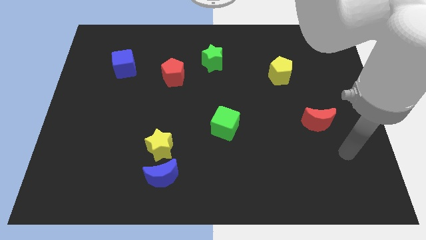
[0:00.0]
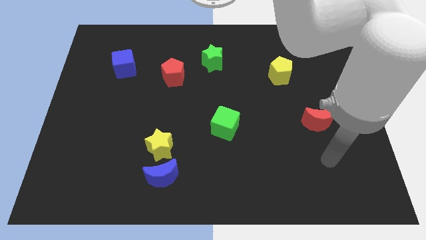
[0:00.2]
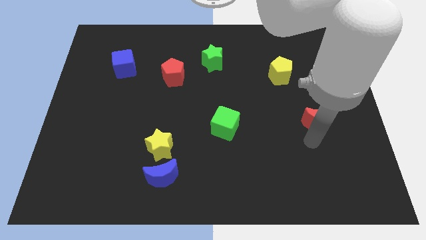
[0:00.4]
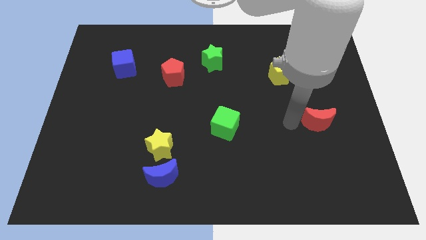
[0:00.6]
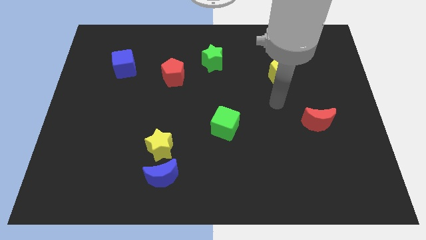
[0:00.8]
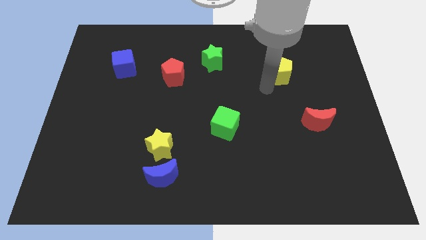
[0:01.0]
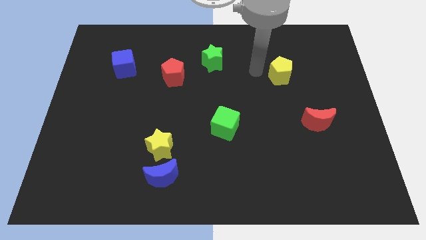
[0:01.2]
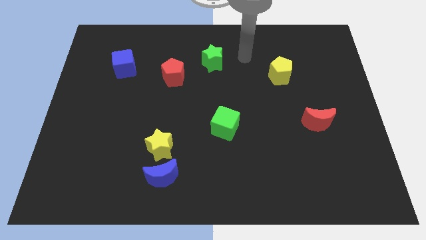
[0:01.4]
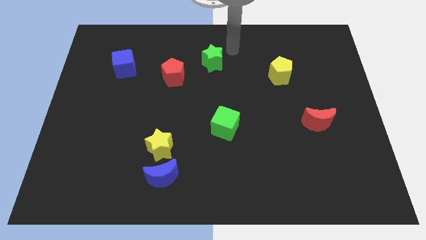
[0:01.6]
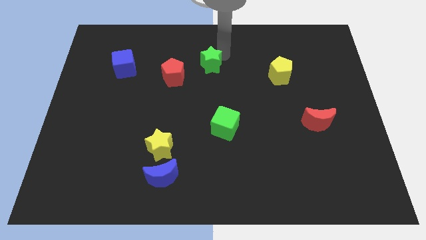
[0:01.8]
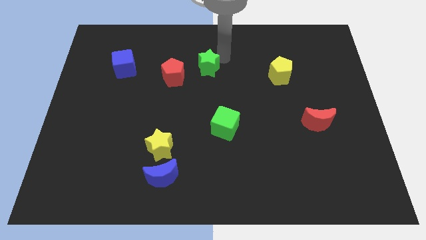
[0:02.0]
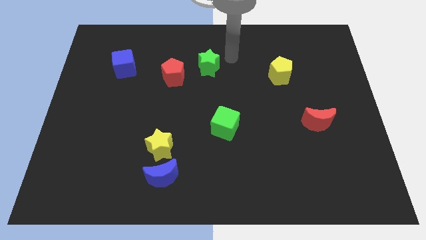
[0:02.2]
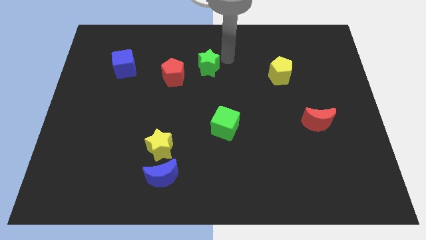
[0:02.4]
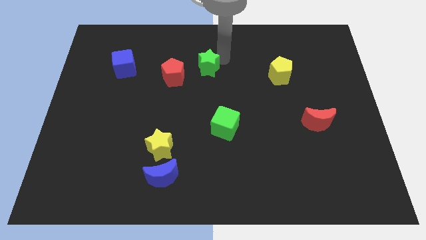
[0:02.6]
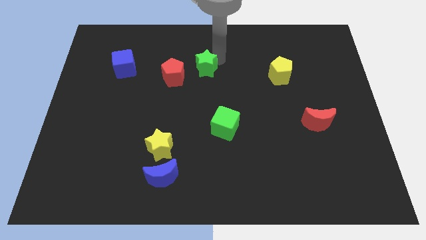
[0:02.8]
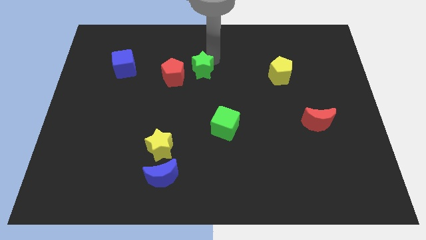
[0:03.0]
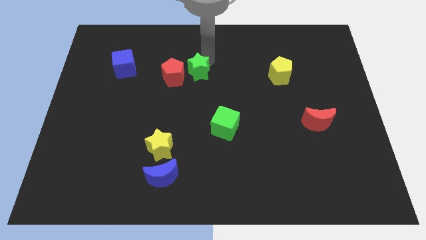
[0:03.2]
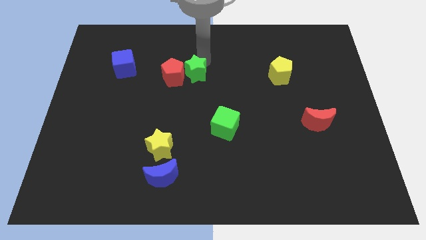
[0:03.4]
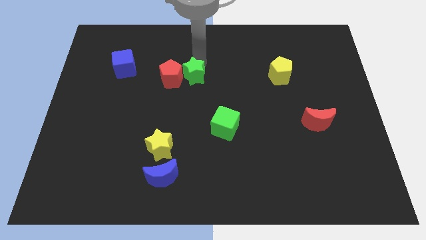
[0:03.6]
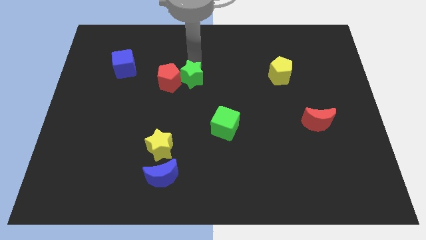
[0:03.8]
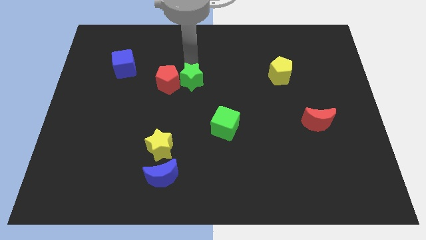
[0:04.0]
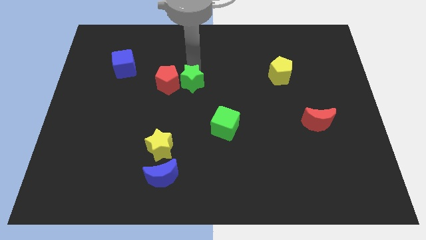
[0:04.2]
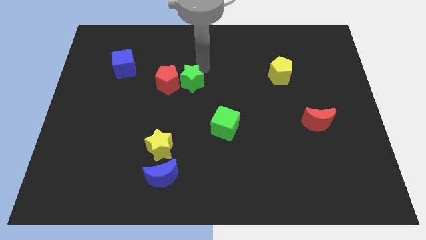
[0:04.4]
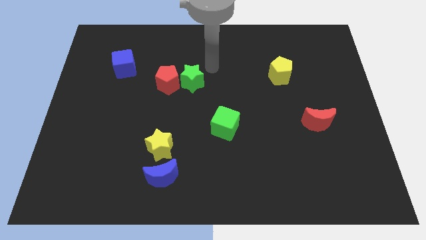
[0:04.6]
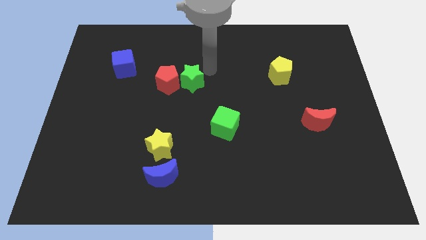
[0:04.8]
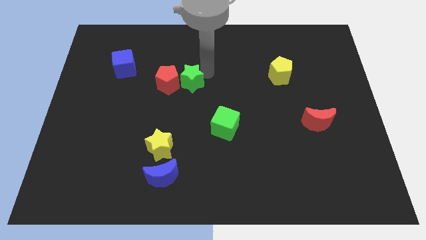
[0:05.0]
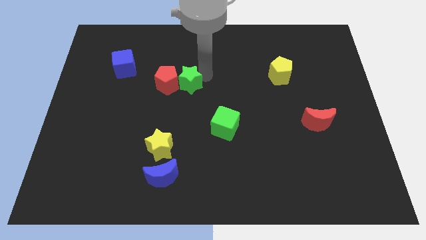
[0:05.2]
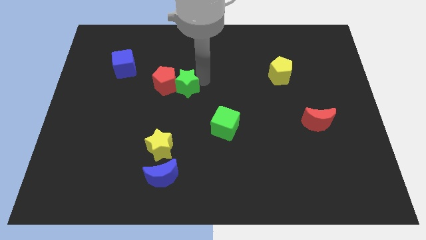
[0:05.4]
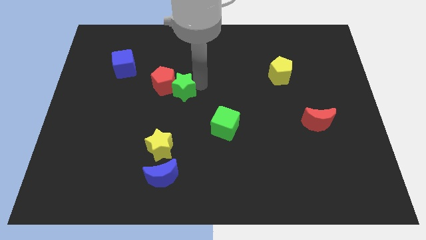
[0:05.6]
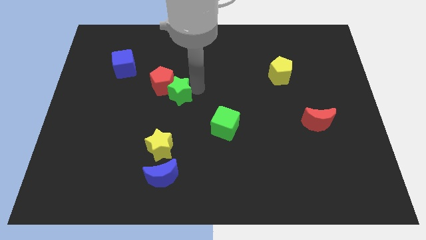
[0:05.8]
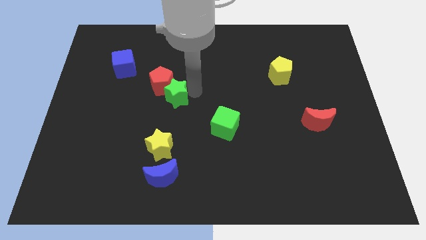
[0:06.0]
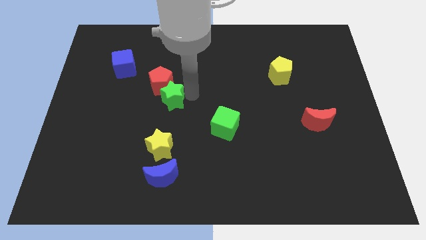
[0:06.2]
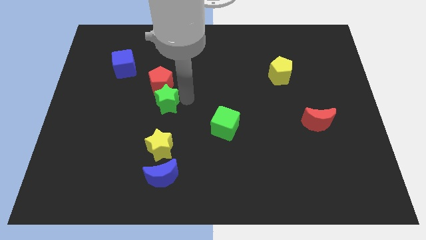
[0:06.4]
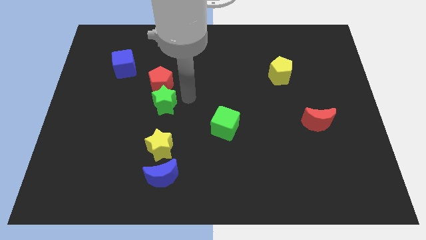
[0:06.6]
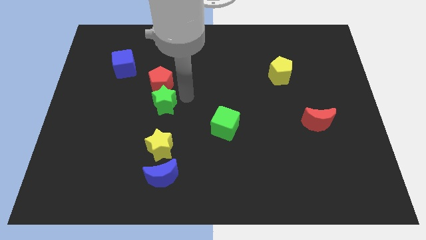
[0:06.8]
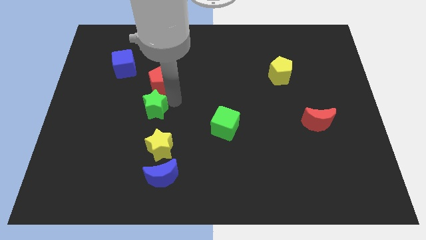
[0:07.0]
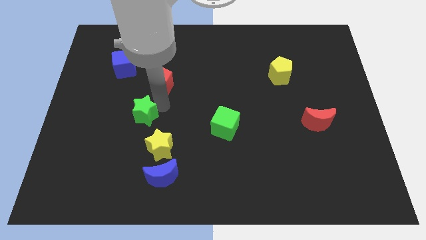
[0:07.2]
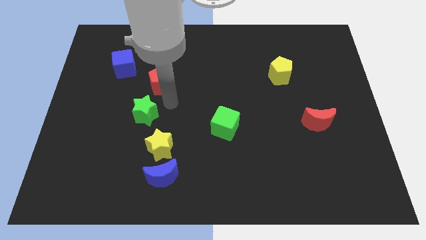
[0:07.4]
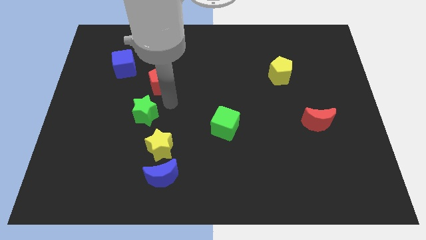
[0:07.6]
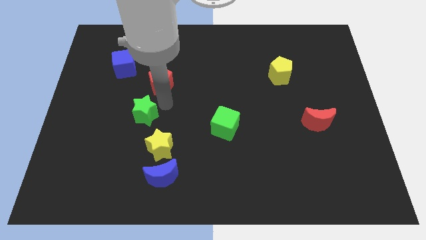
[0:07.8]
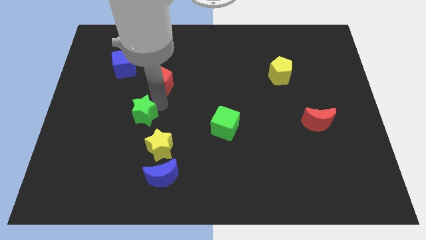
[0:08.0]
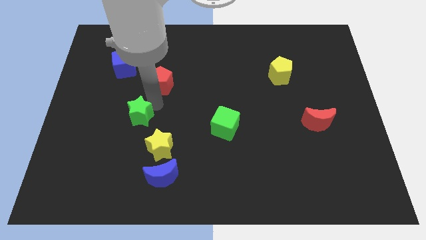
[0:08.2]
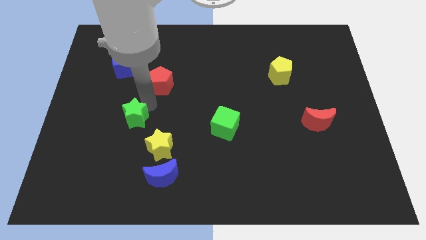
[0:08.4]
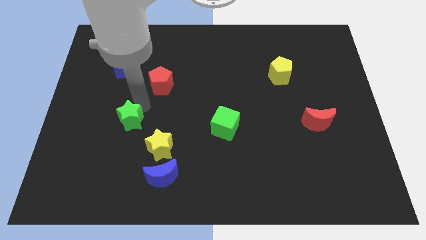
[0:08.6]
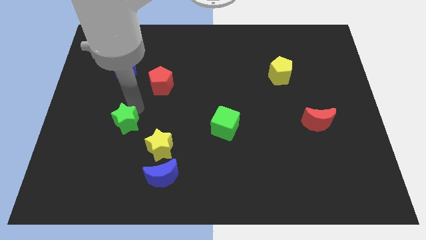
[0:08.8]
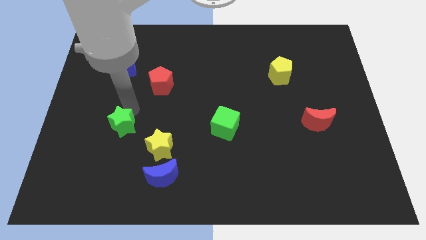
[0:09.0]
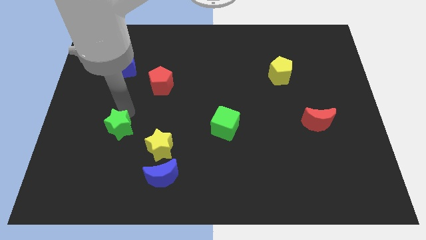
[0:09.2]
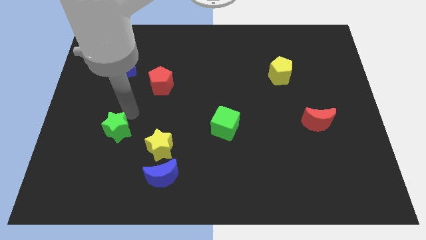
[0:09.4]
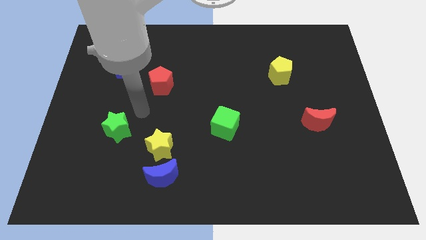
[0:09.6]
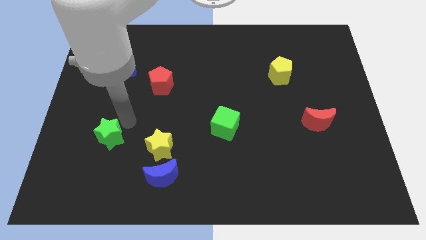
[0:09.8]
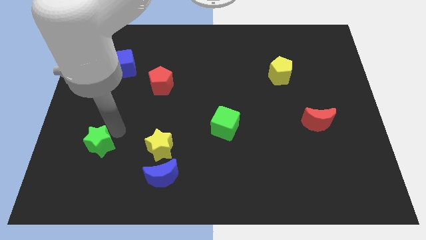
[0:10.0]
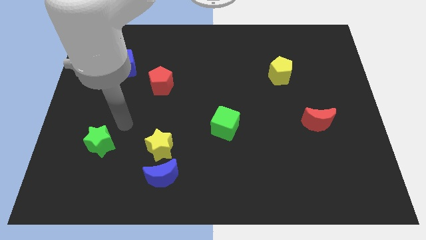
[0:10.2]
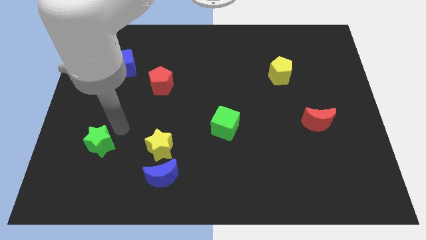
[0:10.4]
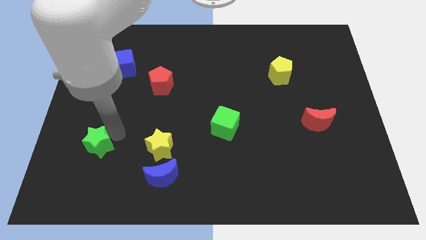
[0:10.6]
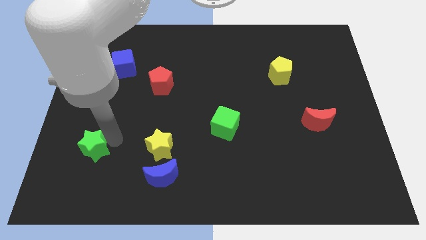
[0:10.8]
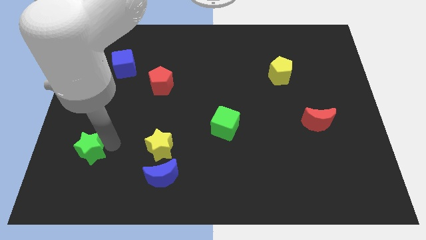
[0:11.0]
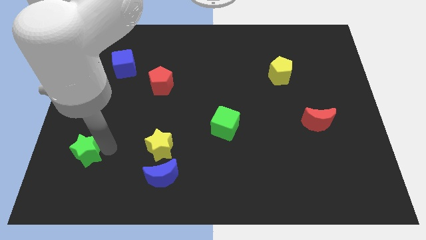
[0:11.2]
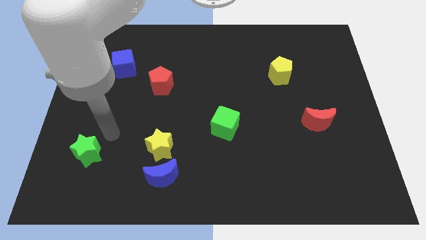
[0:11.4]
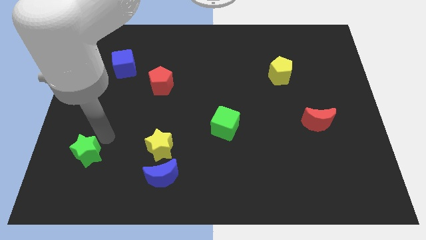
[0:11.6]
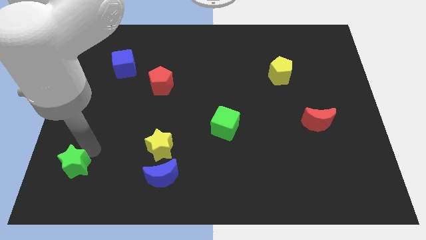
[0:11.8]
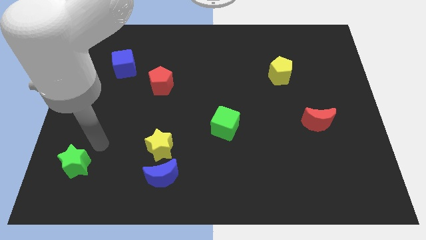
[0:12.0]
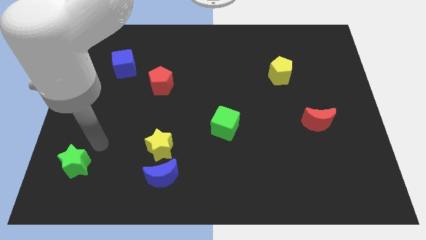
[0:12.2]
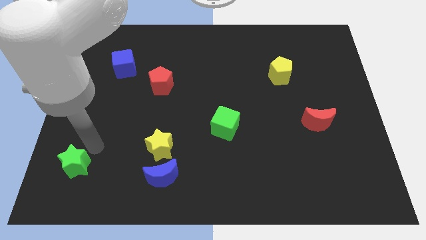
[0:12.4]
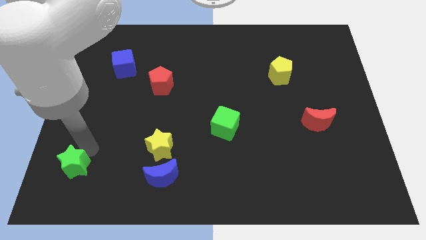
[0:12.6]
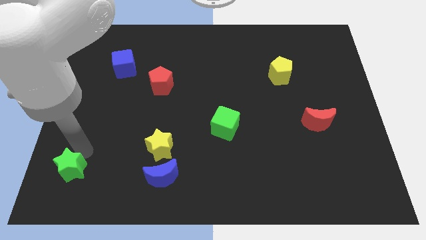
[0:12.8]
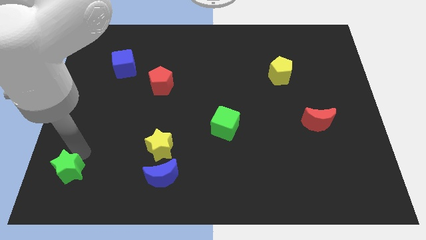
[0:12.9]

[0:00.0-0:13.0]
slide the green star to the bottom left corner
